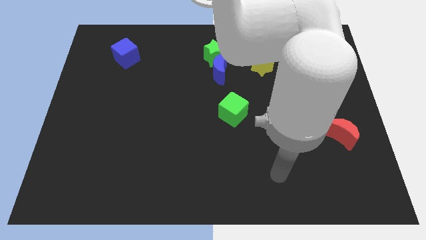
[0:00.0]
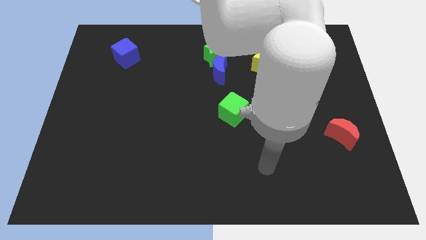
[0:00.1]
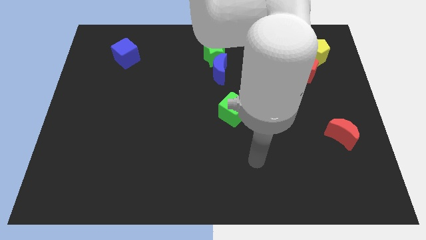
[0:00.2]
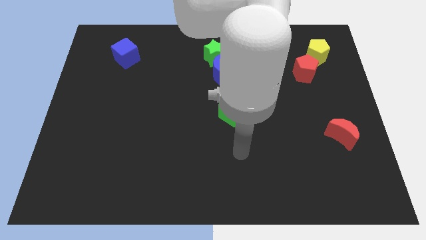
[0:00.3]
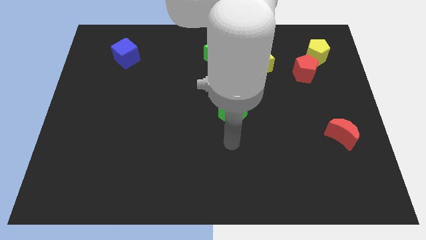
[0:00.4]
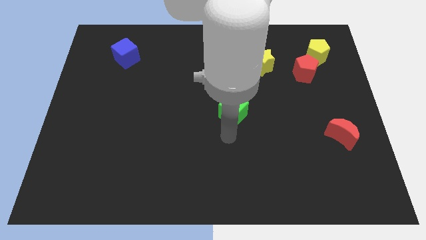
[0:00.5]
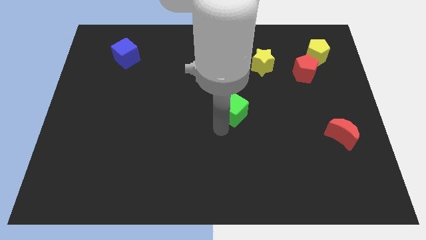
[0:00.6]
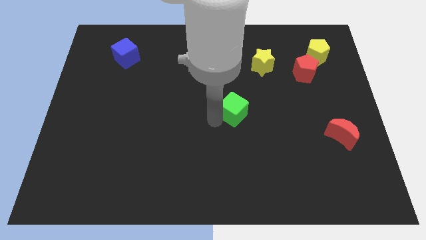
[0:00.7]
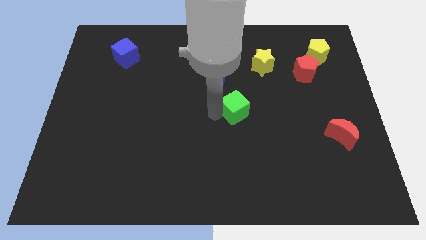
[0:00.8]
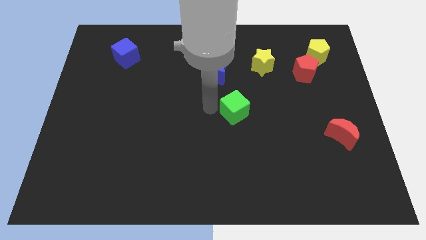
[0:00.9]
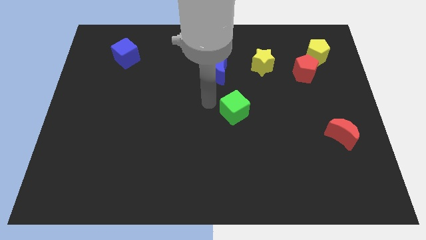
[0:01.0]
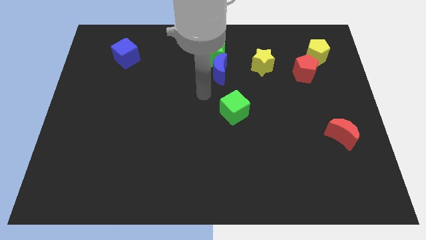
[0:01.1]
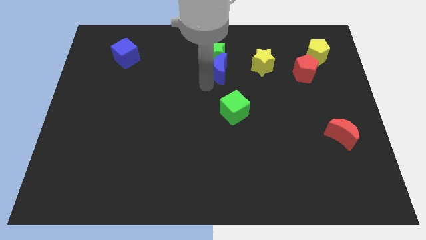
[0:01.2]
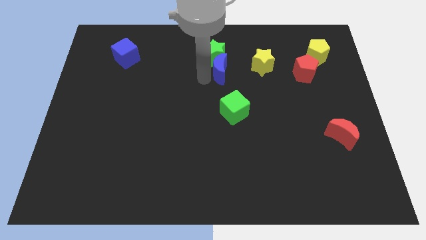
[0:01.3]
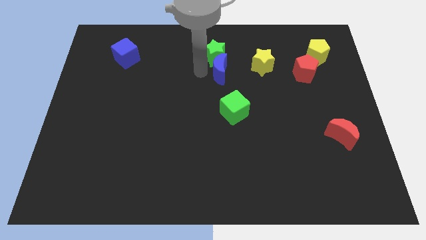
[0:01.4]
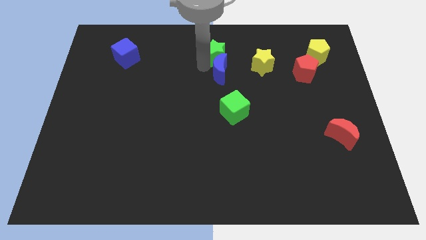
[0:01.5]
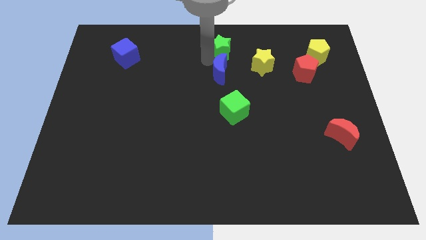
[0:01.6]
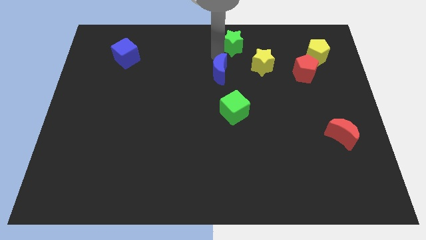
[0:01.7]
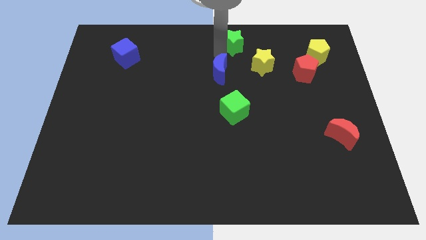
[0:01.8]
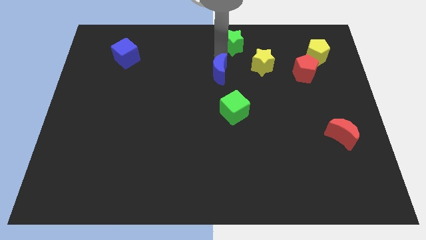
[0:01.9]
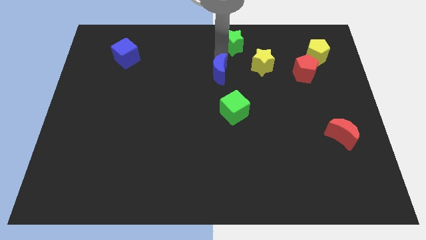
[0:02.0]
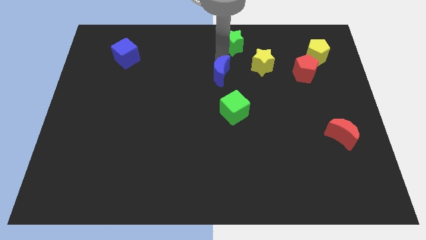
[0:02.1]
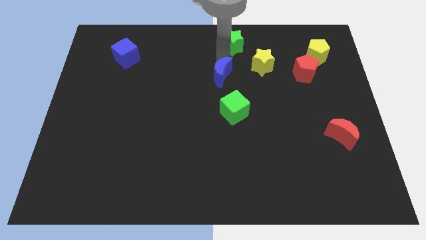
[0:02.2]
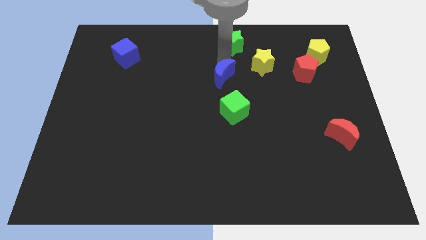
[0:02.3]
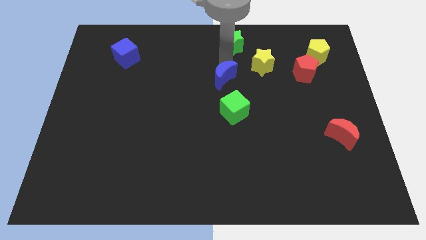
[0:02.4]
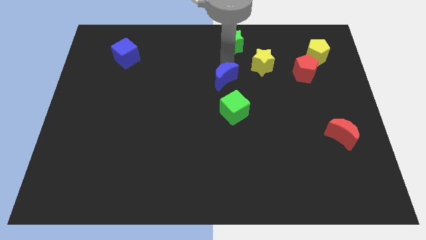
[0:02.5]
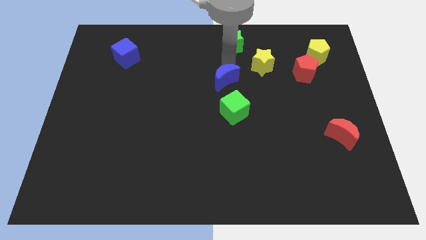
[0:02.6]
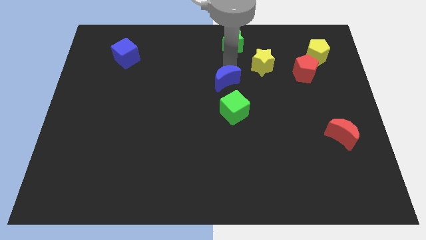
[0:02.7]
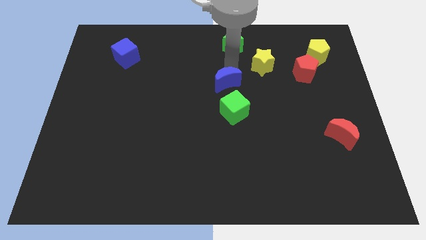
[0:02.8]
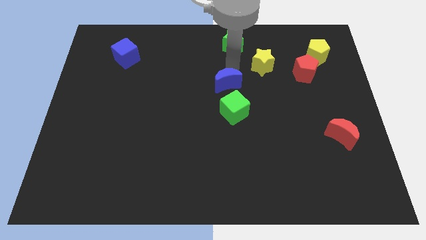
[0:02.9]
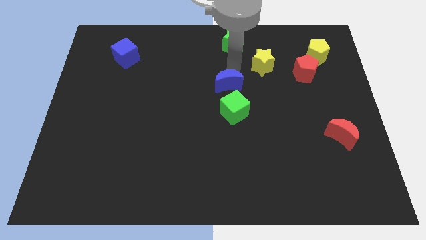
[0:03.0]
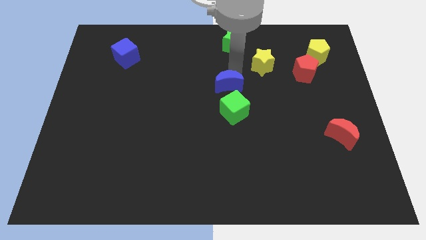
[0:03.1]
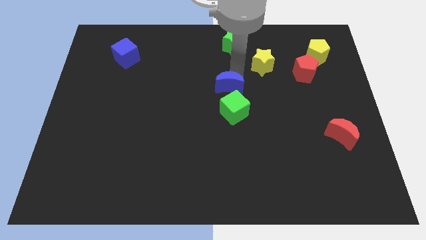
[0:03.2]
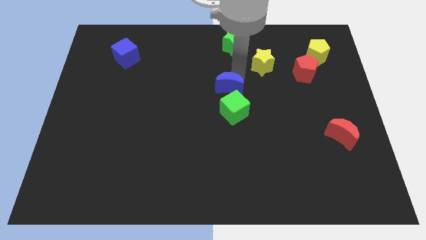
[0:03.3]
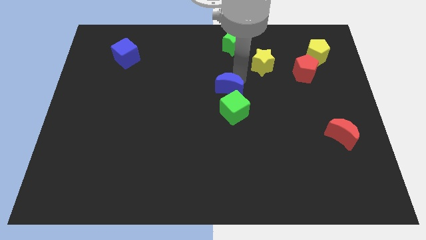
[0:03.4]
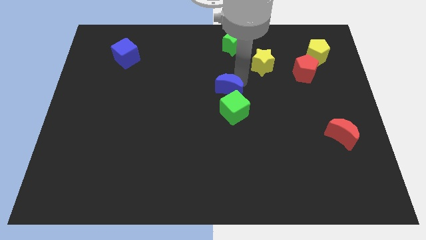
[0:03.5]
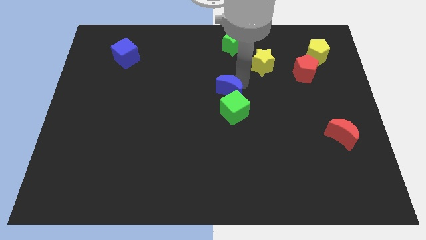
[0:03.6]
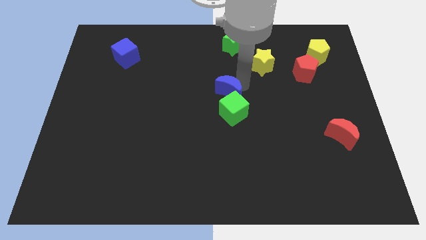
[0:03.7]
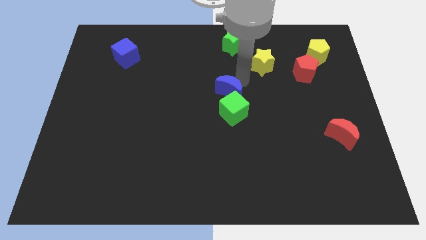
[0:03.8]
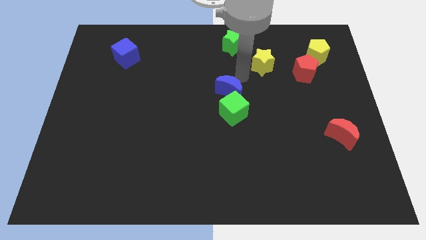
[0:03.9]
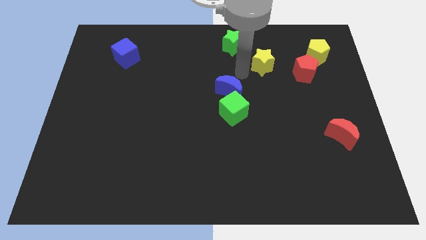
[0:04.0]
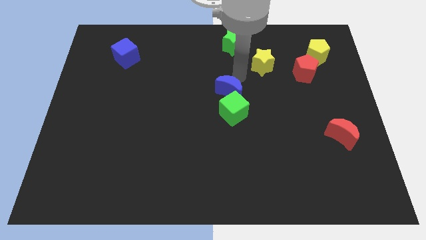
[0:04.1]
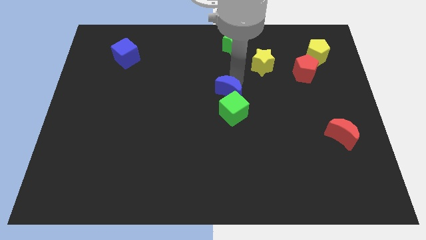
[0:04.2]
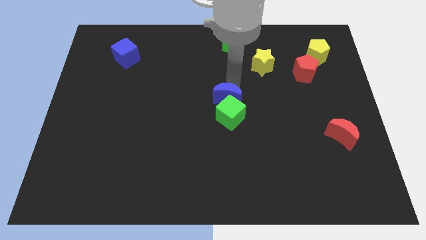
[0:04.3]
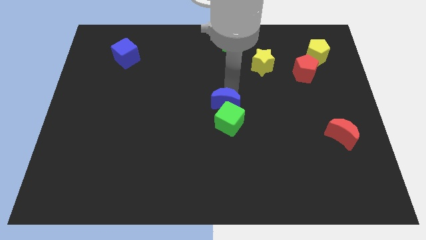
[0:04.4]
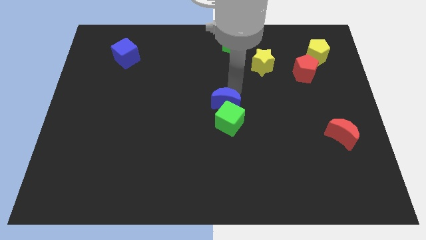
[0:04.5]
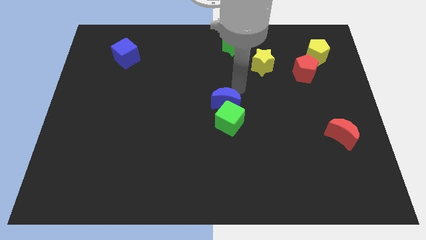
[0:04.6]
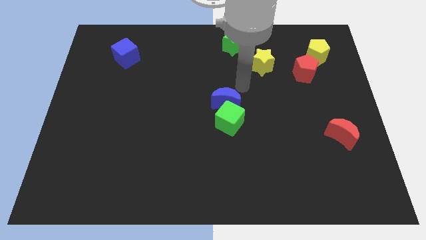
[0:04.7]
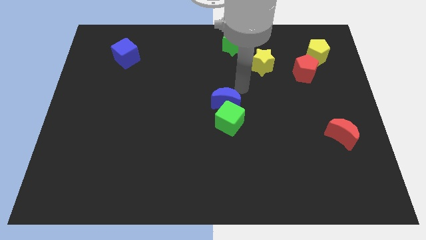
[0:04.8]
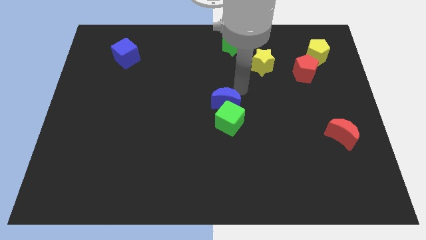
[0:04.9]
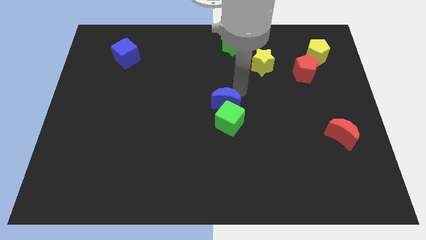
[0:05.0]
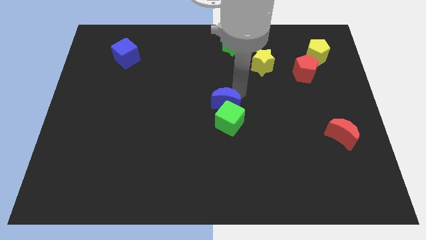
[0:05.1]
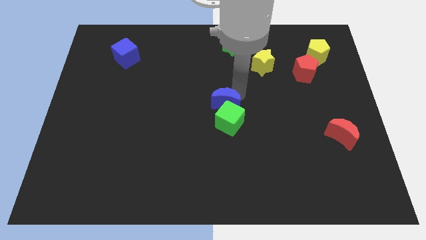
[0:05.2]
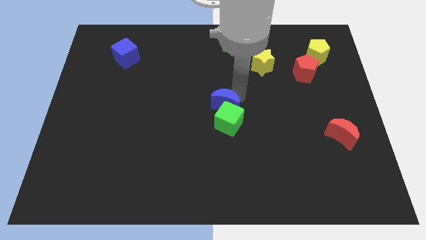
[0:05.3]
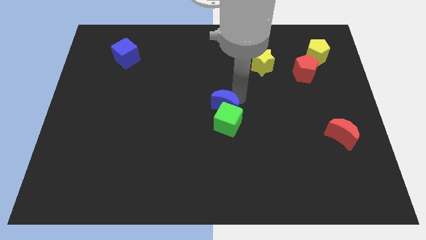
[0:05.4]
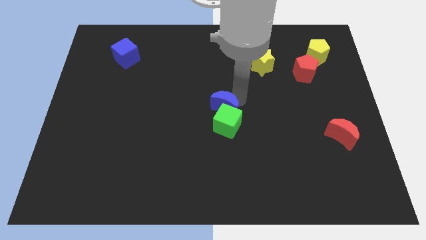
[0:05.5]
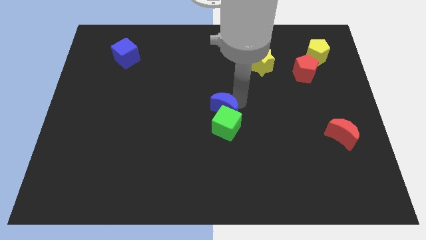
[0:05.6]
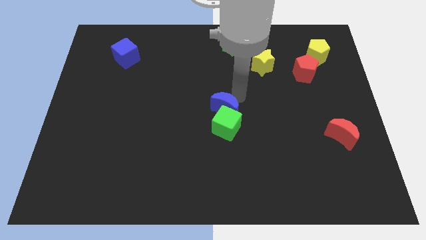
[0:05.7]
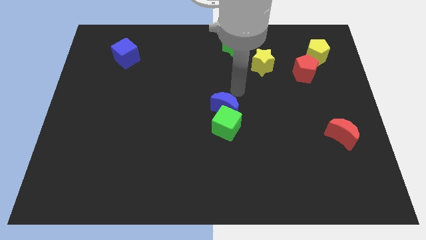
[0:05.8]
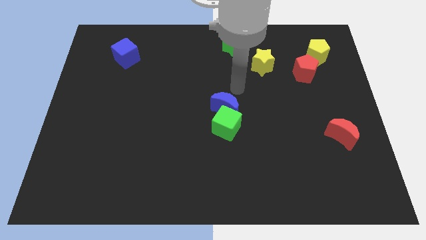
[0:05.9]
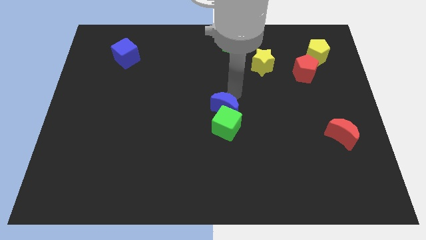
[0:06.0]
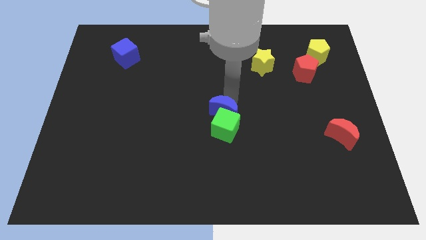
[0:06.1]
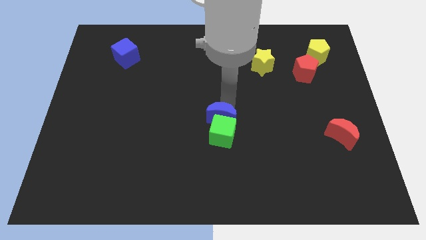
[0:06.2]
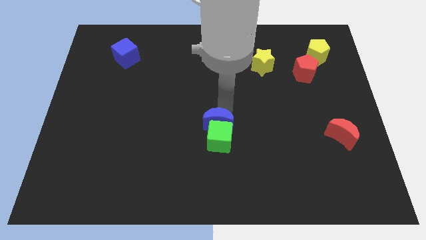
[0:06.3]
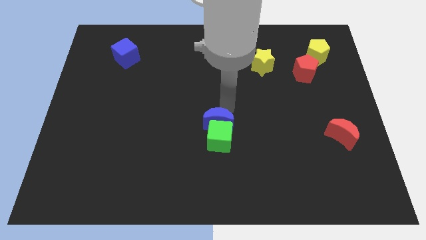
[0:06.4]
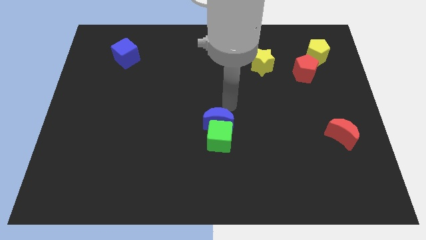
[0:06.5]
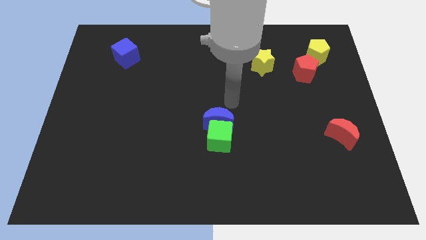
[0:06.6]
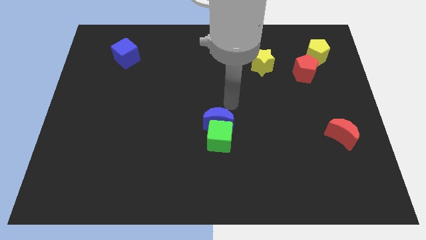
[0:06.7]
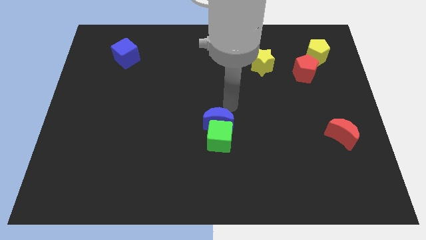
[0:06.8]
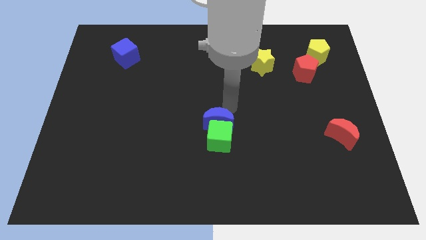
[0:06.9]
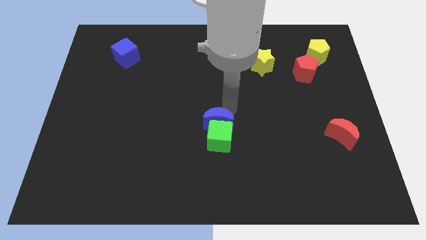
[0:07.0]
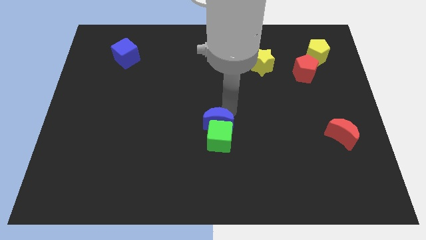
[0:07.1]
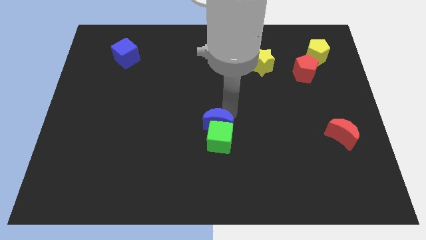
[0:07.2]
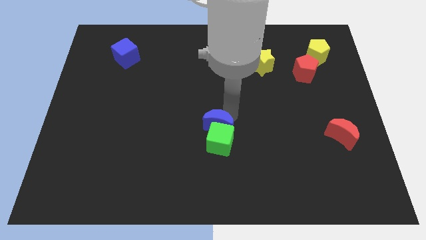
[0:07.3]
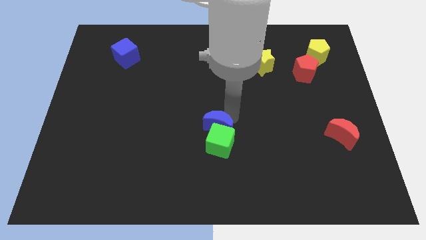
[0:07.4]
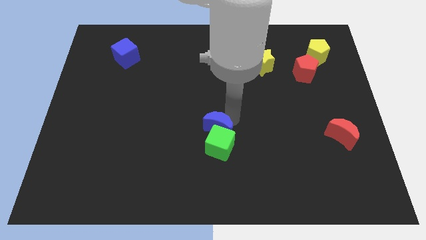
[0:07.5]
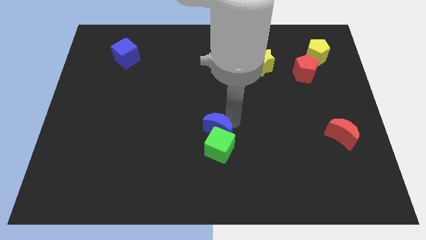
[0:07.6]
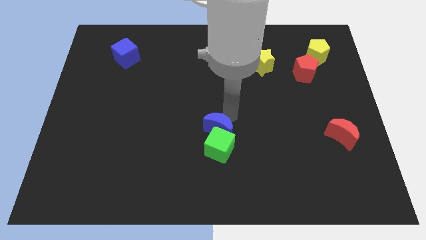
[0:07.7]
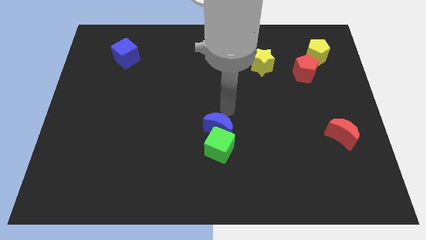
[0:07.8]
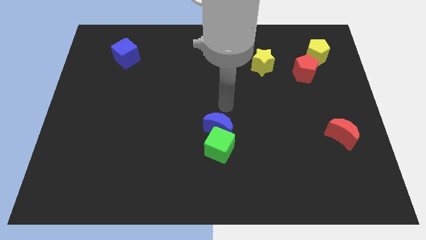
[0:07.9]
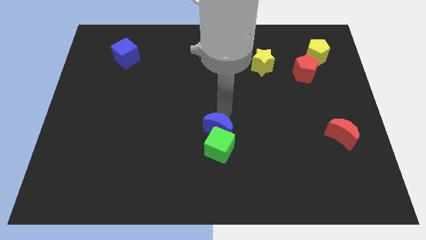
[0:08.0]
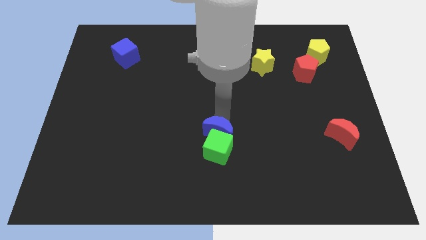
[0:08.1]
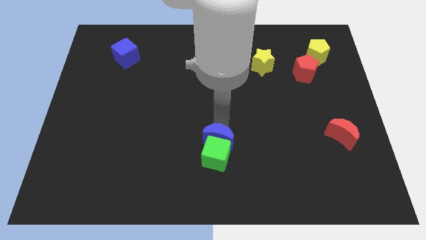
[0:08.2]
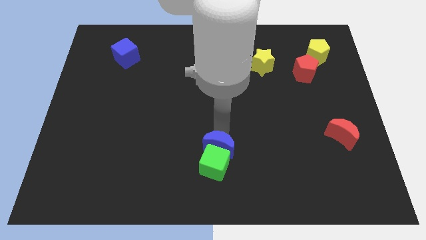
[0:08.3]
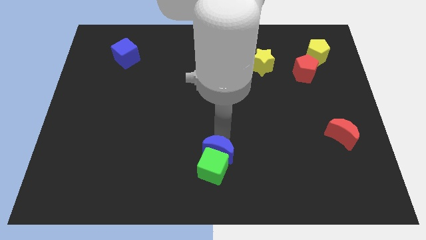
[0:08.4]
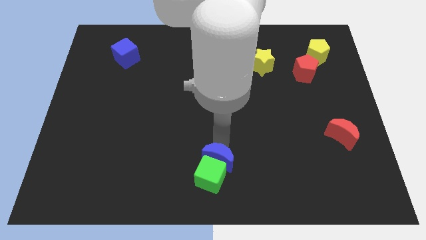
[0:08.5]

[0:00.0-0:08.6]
slide the blue moon to the bottom side
